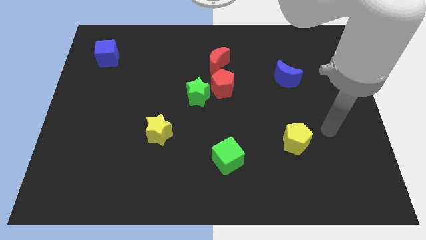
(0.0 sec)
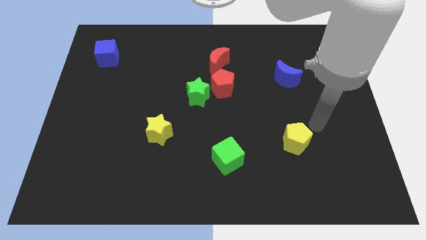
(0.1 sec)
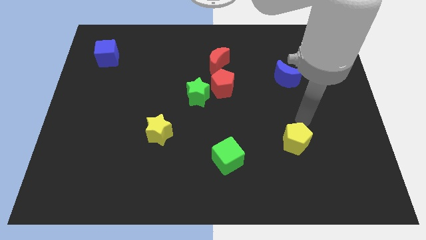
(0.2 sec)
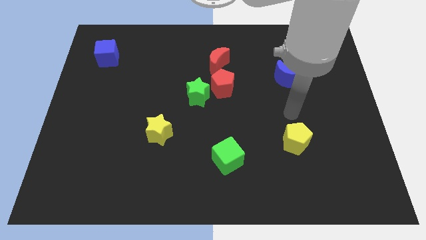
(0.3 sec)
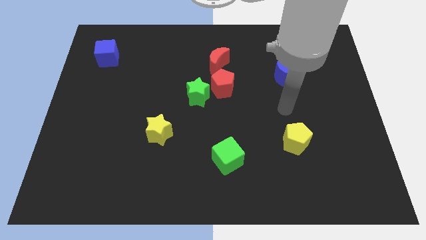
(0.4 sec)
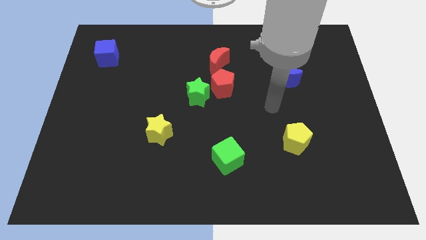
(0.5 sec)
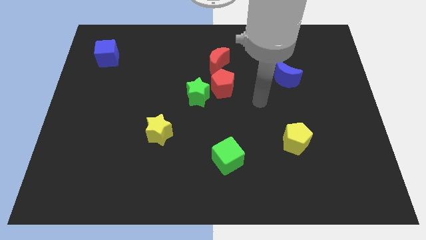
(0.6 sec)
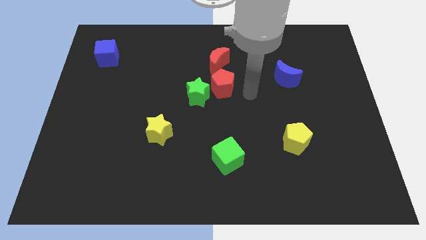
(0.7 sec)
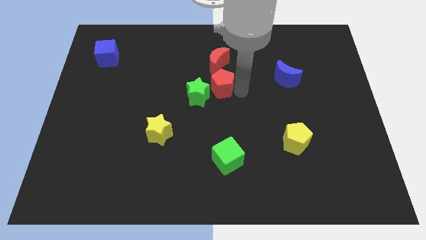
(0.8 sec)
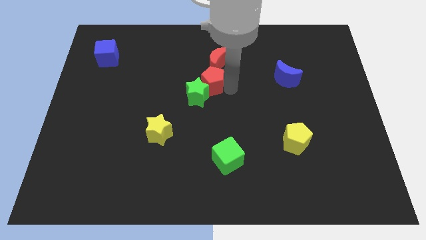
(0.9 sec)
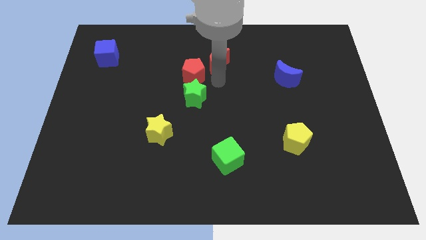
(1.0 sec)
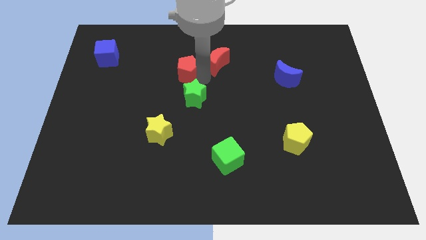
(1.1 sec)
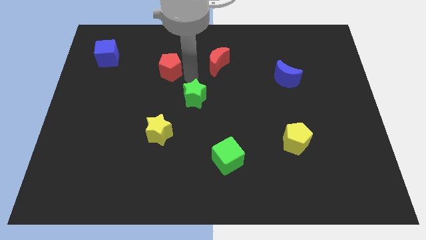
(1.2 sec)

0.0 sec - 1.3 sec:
pull the green star apart from the red pentagon

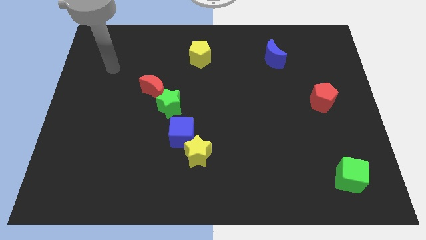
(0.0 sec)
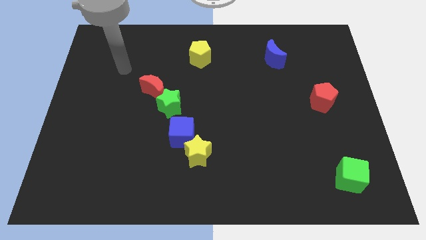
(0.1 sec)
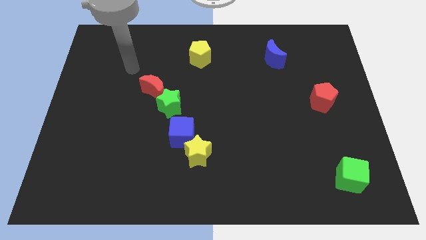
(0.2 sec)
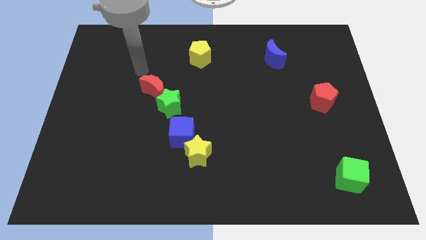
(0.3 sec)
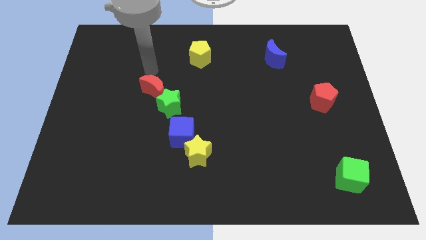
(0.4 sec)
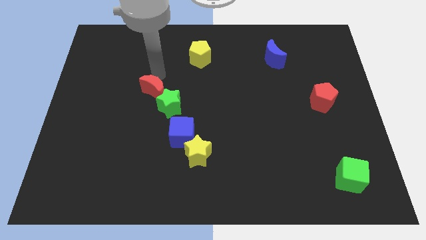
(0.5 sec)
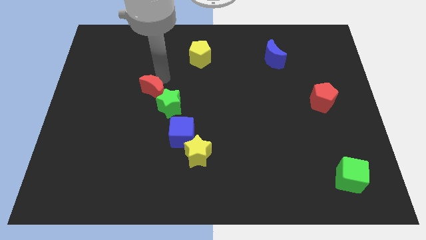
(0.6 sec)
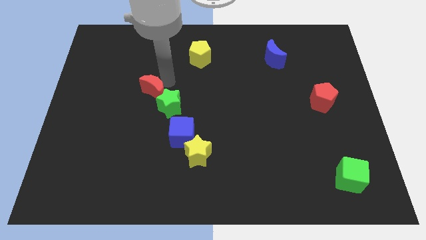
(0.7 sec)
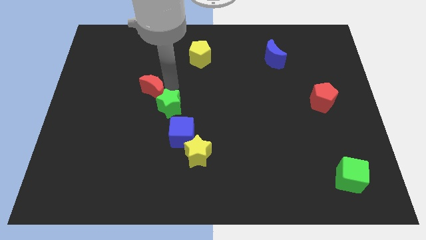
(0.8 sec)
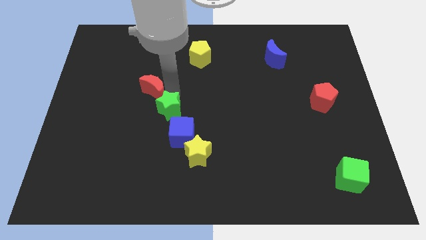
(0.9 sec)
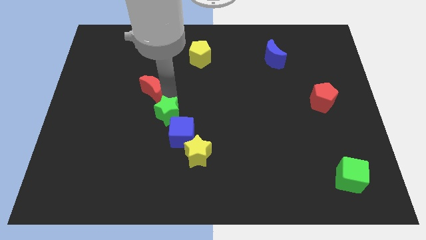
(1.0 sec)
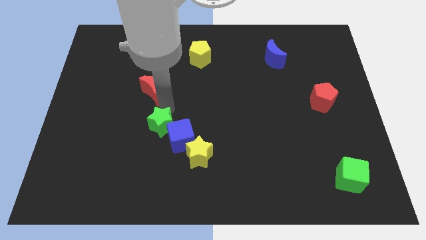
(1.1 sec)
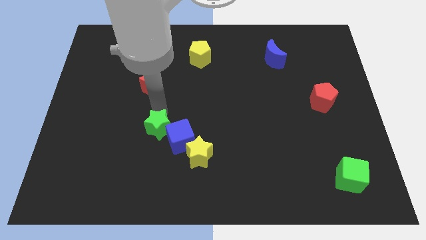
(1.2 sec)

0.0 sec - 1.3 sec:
pull the red moon apart from the green star

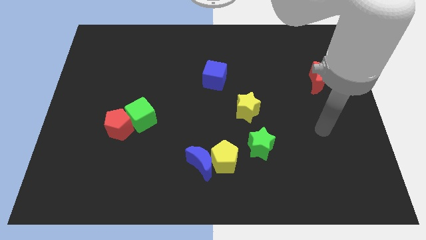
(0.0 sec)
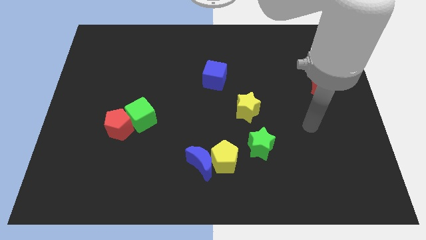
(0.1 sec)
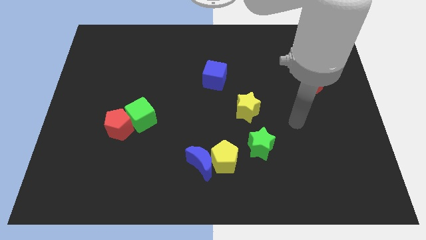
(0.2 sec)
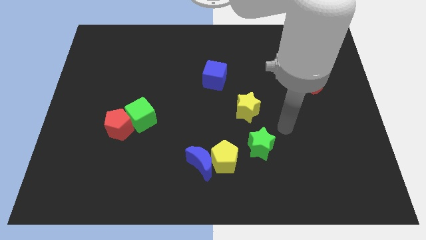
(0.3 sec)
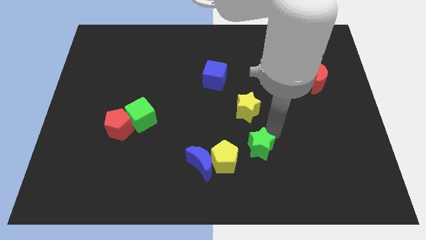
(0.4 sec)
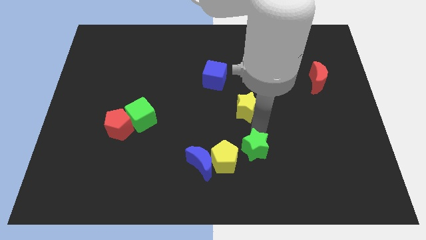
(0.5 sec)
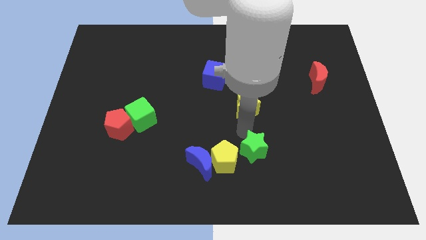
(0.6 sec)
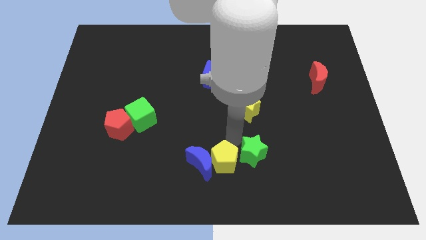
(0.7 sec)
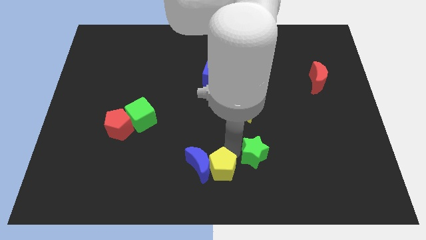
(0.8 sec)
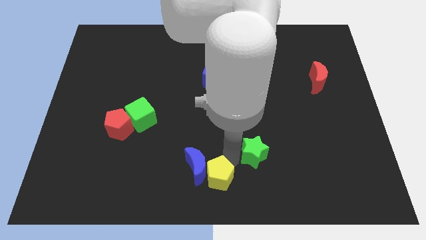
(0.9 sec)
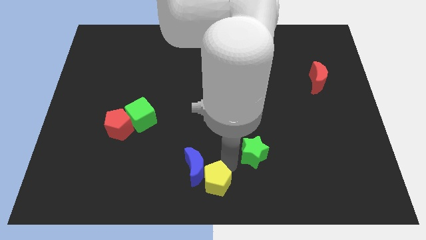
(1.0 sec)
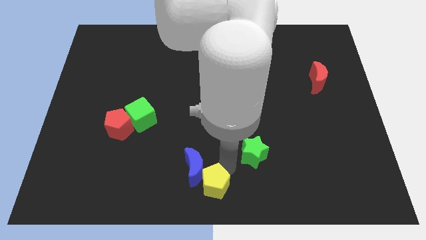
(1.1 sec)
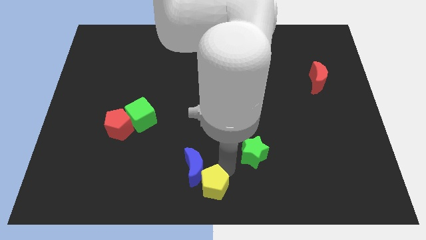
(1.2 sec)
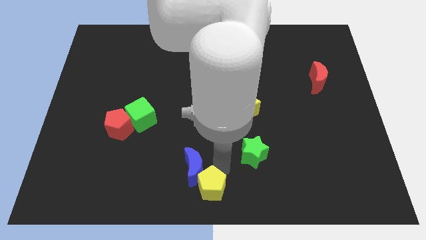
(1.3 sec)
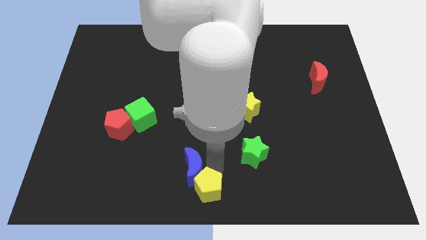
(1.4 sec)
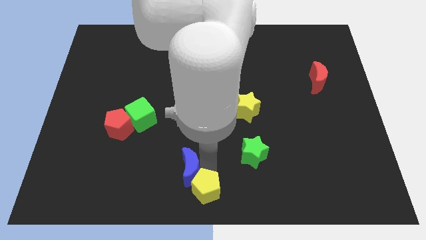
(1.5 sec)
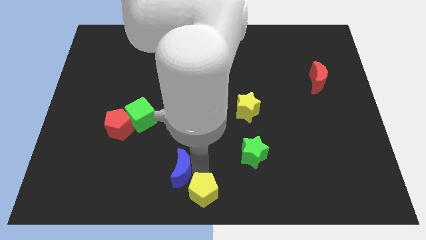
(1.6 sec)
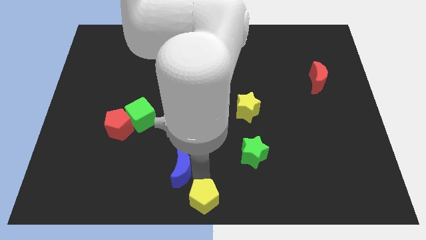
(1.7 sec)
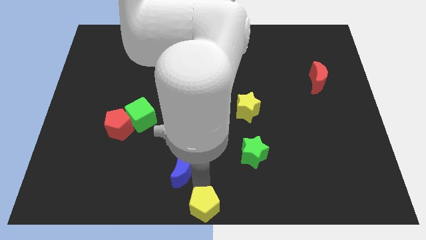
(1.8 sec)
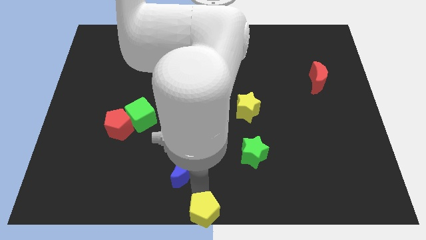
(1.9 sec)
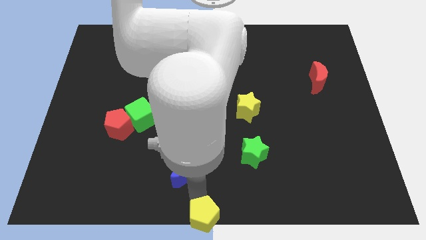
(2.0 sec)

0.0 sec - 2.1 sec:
move the blue moon away from the yellow pentagon

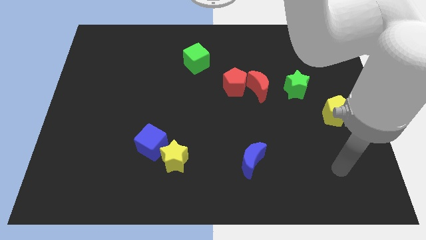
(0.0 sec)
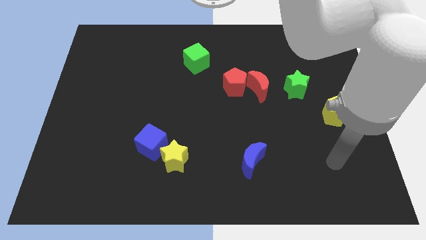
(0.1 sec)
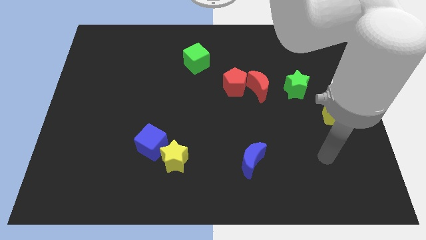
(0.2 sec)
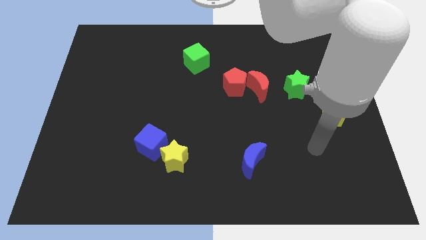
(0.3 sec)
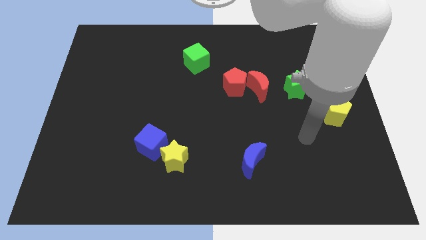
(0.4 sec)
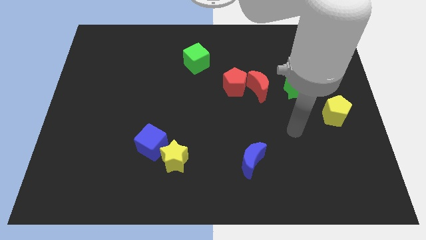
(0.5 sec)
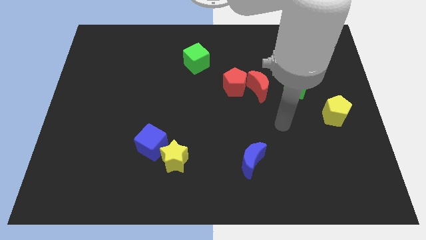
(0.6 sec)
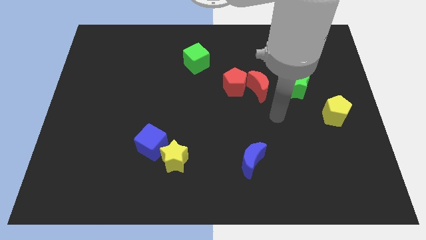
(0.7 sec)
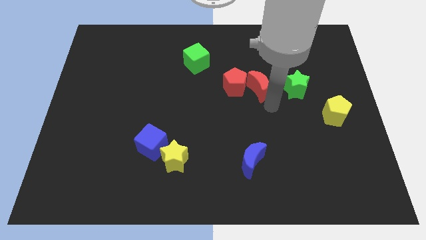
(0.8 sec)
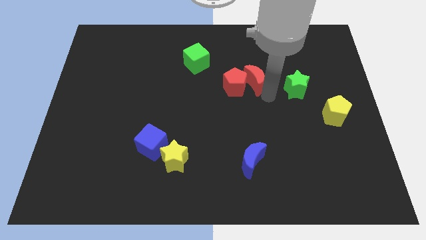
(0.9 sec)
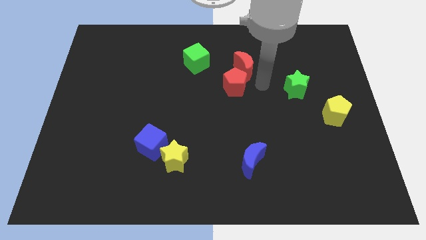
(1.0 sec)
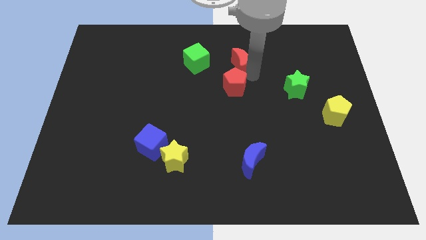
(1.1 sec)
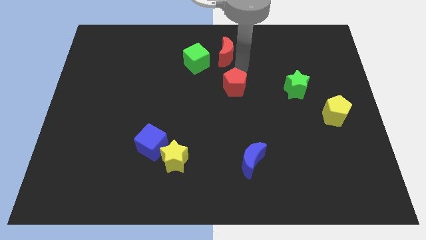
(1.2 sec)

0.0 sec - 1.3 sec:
separate the red pentagon from the red moon

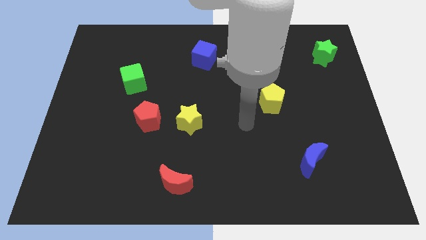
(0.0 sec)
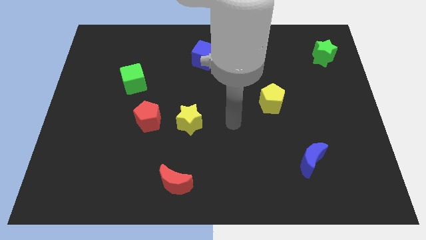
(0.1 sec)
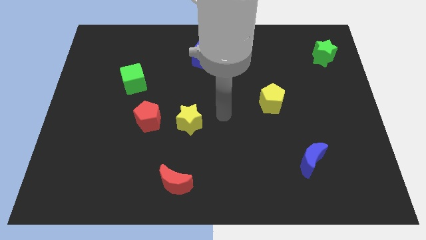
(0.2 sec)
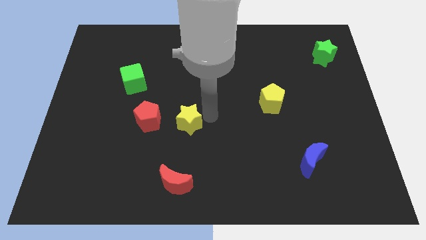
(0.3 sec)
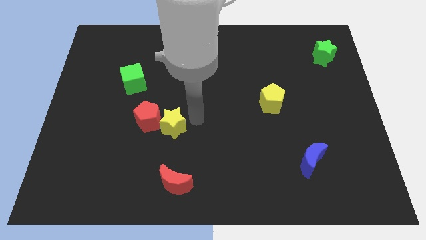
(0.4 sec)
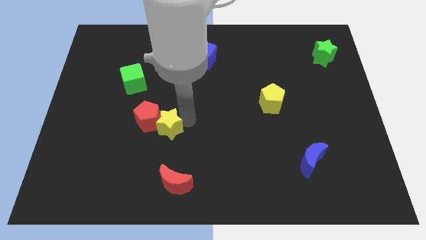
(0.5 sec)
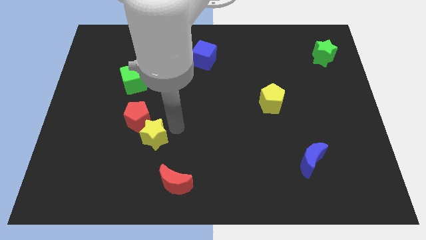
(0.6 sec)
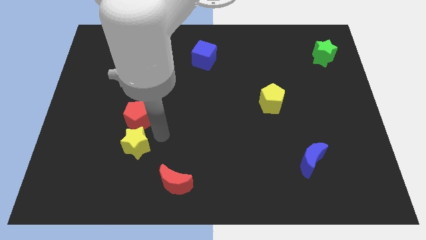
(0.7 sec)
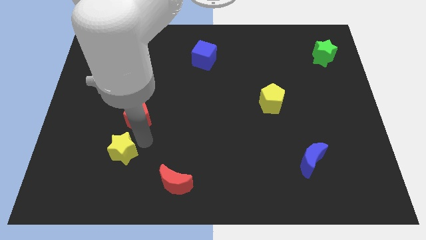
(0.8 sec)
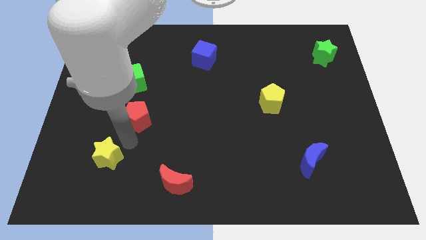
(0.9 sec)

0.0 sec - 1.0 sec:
move the red pentagon away from the yellow star

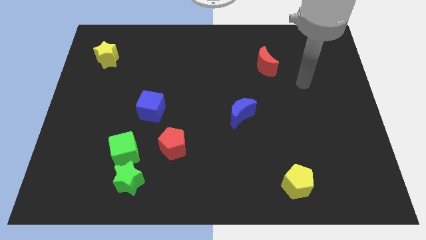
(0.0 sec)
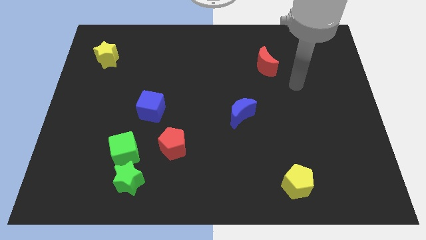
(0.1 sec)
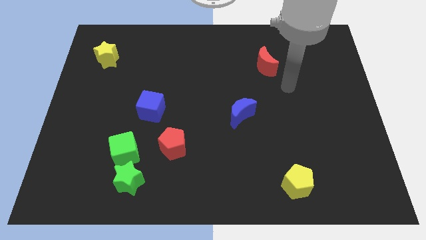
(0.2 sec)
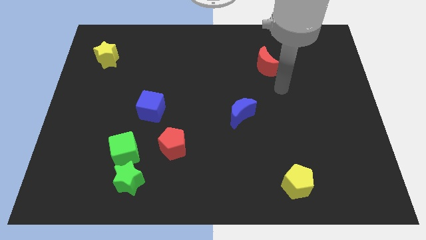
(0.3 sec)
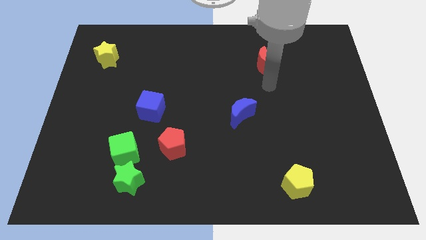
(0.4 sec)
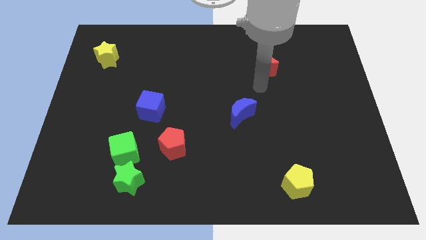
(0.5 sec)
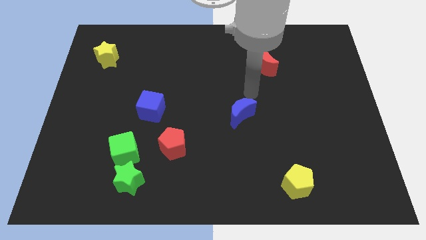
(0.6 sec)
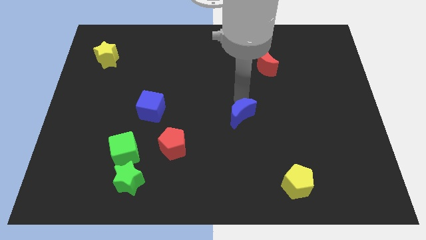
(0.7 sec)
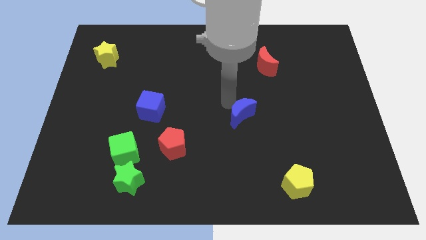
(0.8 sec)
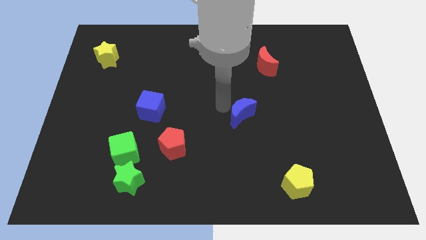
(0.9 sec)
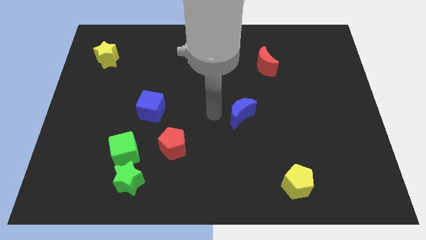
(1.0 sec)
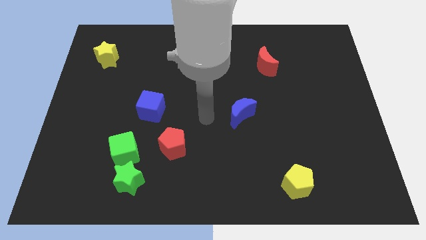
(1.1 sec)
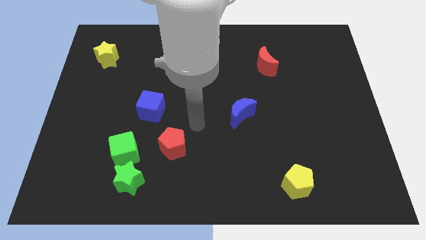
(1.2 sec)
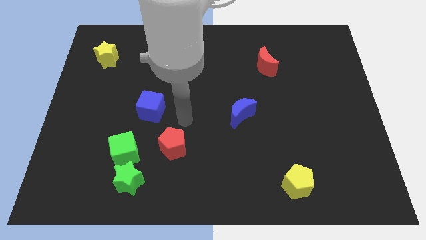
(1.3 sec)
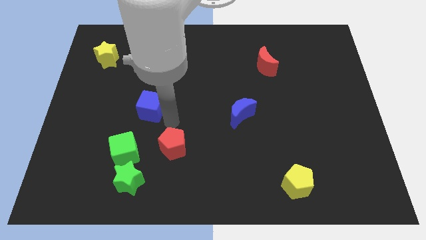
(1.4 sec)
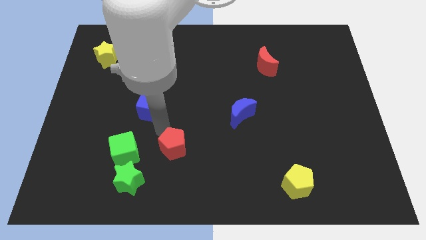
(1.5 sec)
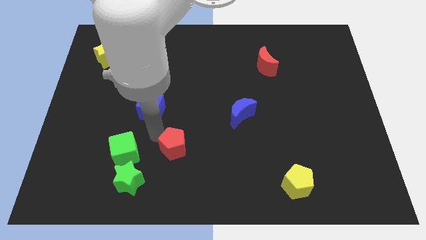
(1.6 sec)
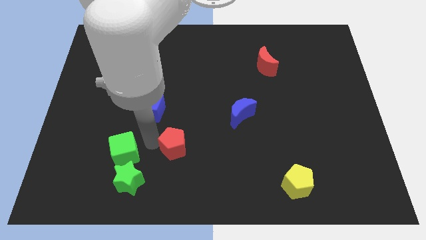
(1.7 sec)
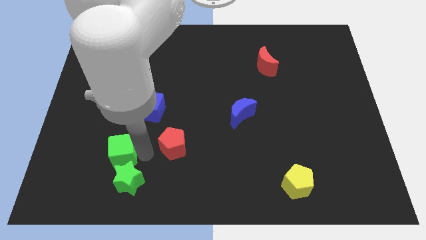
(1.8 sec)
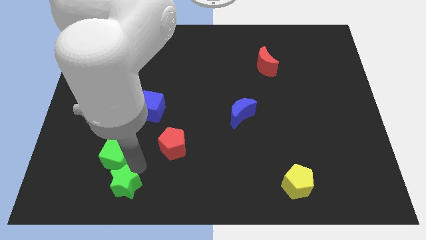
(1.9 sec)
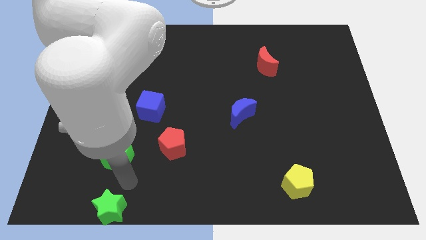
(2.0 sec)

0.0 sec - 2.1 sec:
move the green cube away from the green star

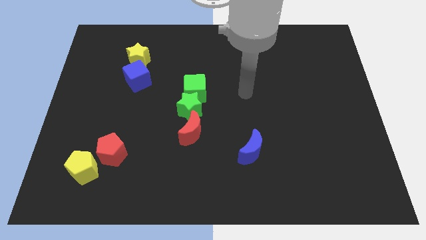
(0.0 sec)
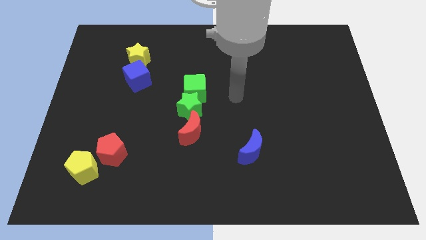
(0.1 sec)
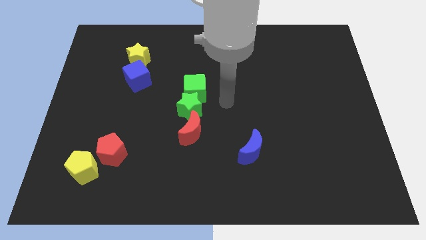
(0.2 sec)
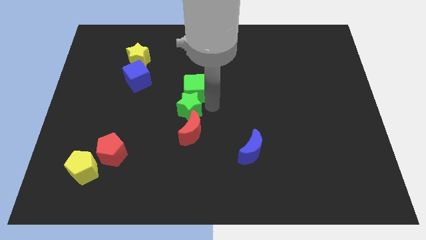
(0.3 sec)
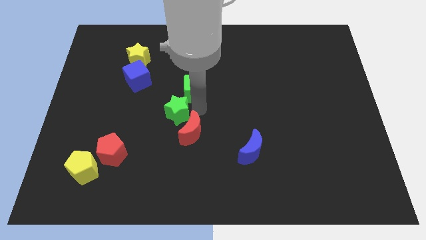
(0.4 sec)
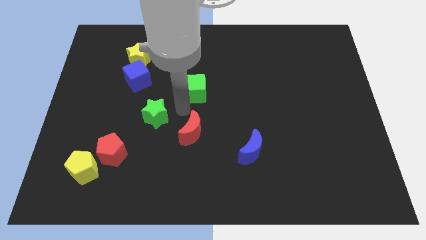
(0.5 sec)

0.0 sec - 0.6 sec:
separate the green cube from the green star
